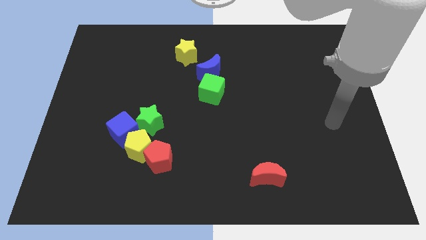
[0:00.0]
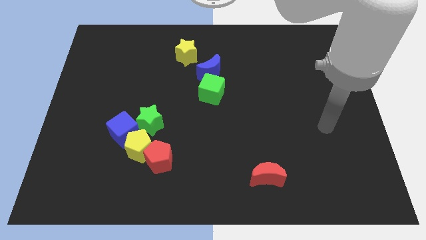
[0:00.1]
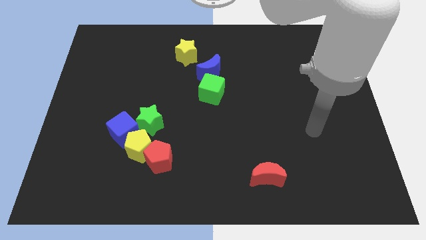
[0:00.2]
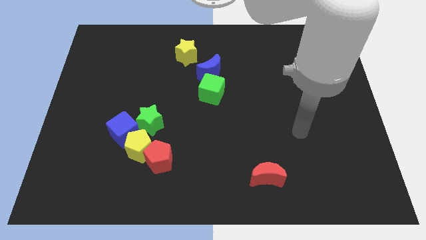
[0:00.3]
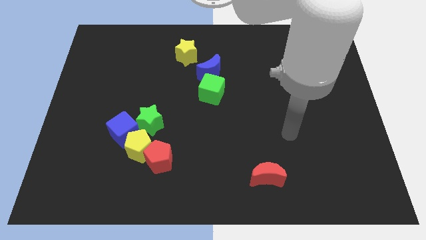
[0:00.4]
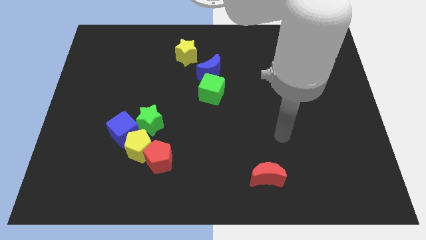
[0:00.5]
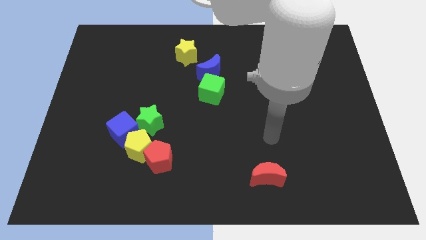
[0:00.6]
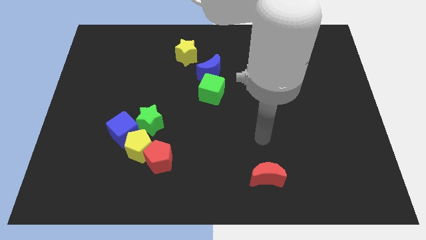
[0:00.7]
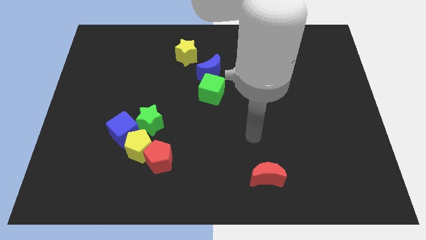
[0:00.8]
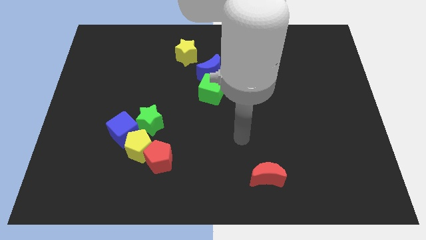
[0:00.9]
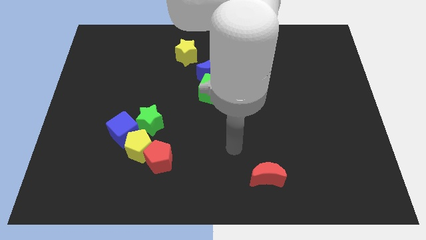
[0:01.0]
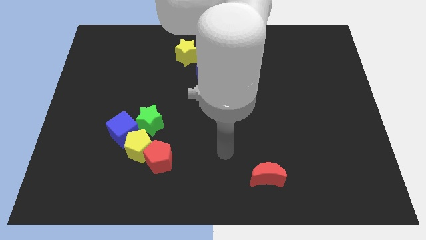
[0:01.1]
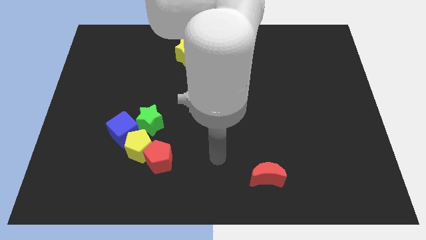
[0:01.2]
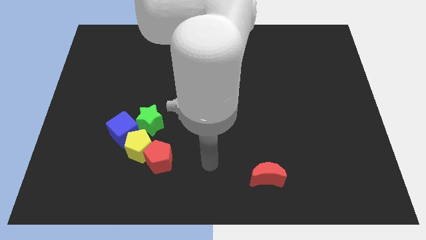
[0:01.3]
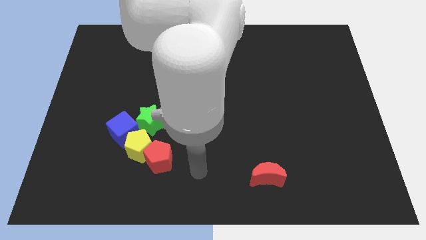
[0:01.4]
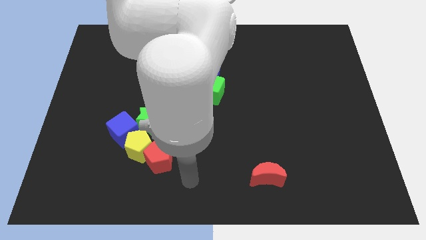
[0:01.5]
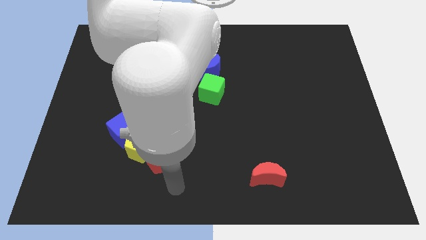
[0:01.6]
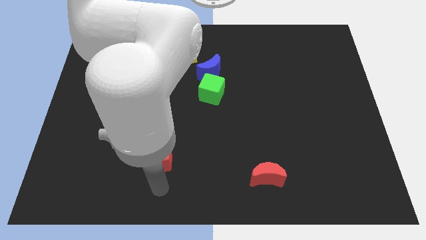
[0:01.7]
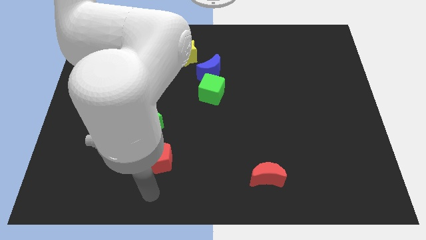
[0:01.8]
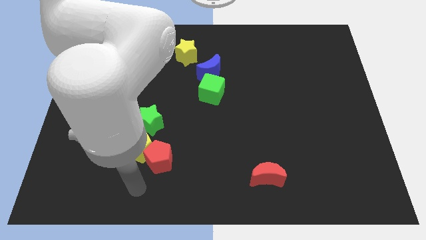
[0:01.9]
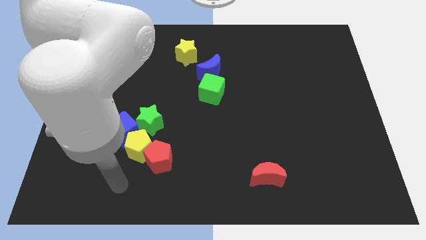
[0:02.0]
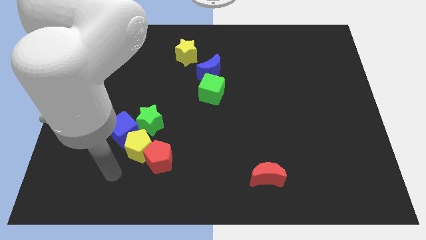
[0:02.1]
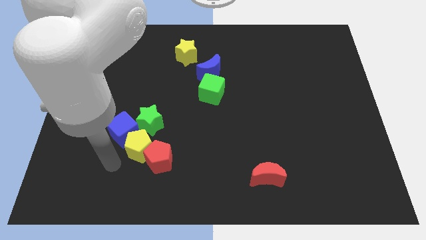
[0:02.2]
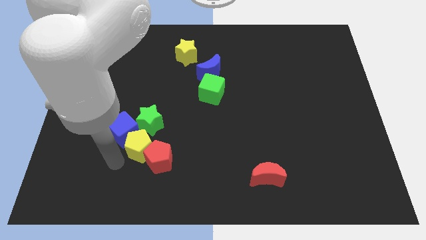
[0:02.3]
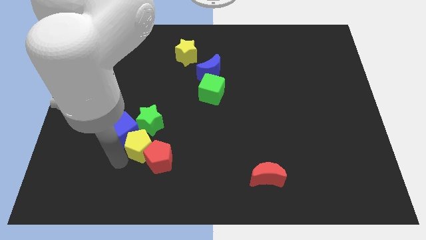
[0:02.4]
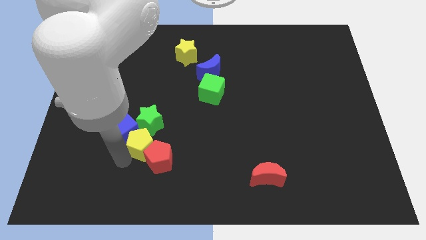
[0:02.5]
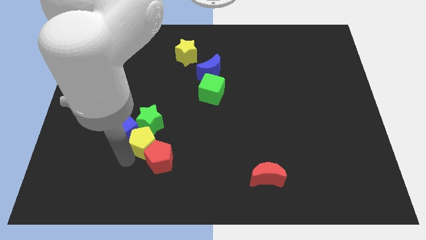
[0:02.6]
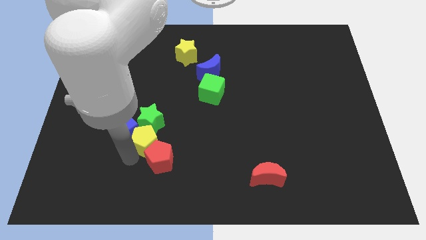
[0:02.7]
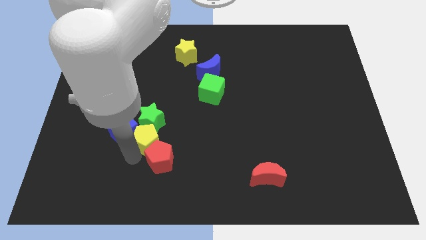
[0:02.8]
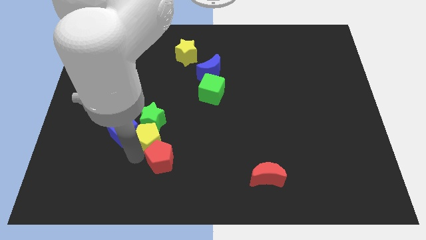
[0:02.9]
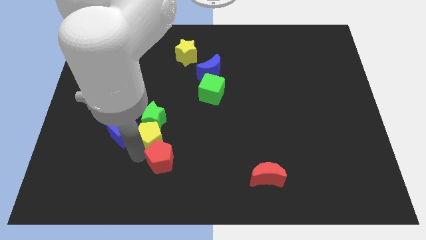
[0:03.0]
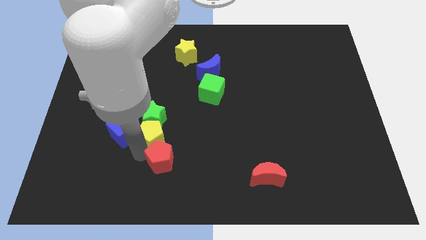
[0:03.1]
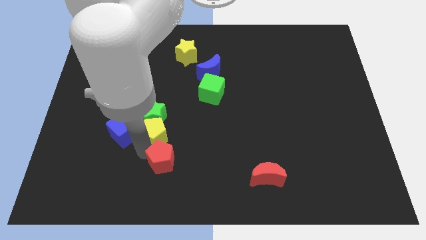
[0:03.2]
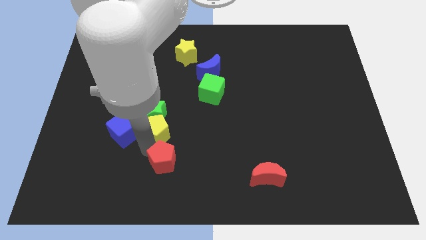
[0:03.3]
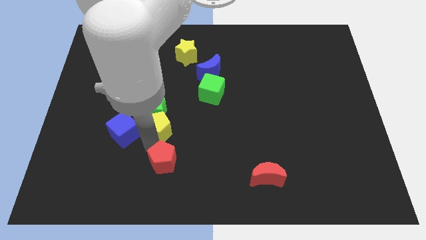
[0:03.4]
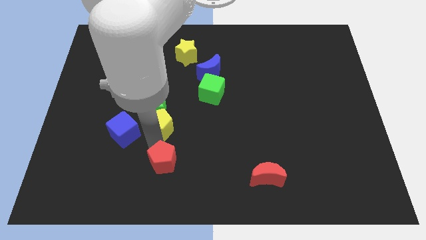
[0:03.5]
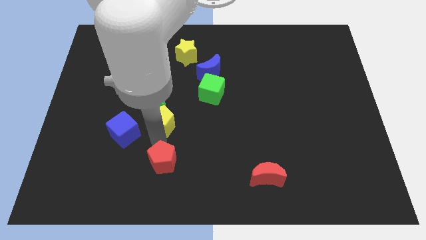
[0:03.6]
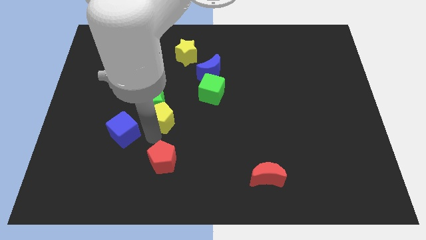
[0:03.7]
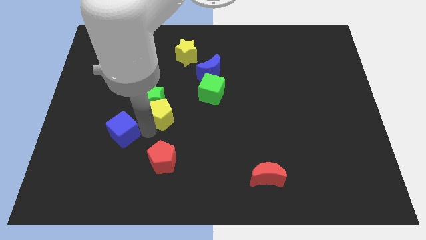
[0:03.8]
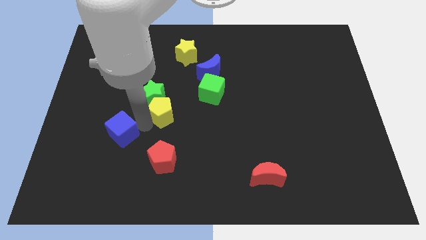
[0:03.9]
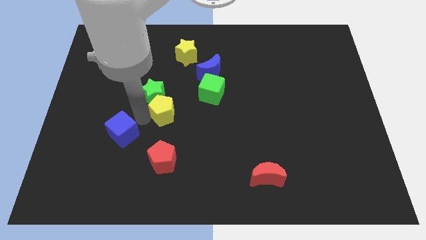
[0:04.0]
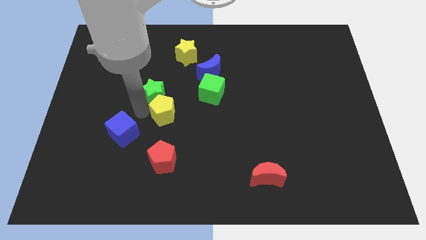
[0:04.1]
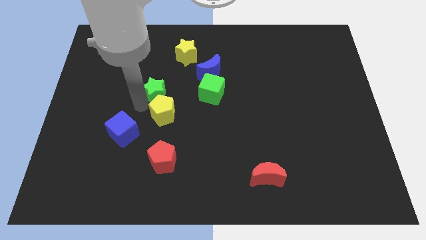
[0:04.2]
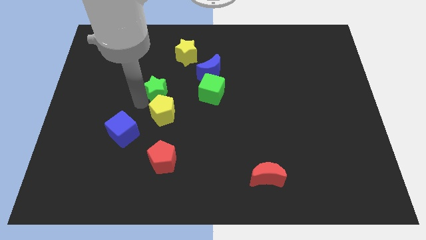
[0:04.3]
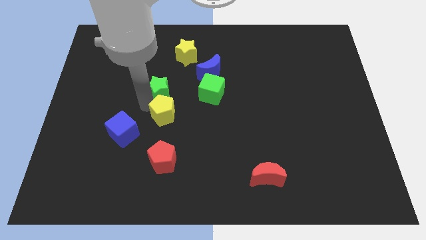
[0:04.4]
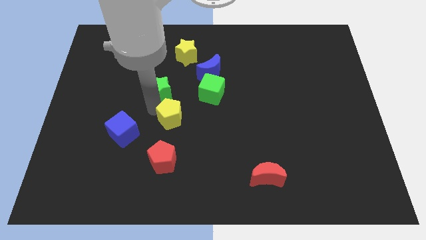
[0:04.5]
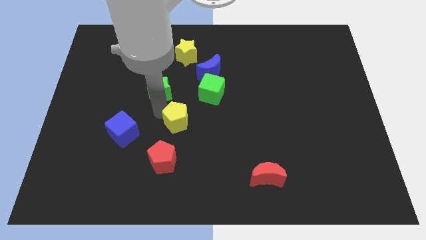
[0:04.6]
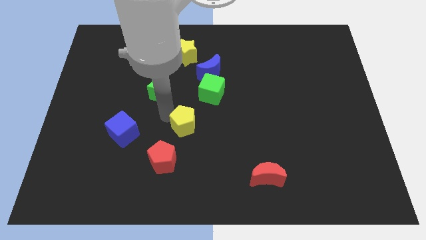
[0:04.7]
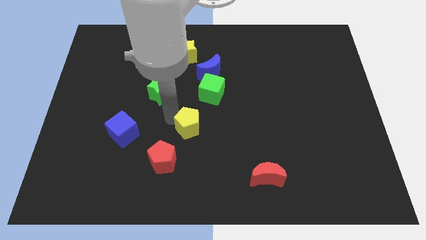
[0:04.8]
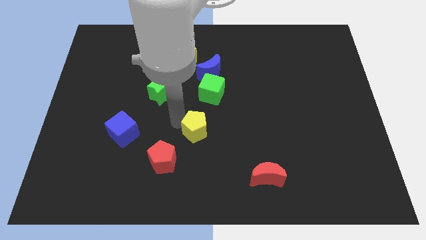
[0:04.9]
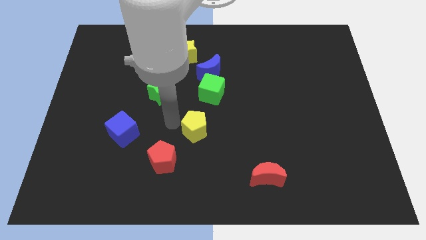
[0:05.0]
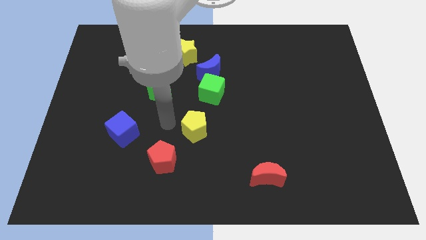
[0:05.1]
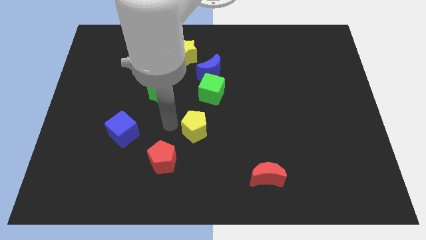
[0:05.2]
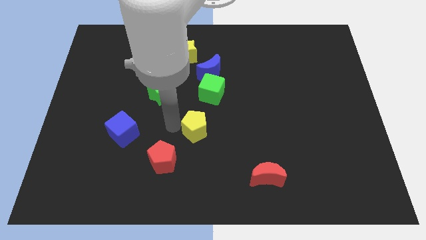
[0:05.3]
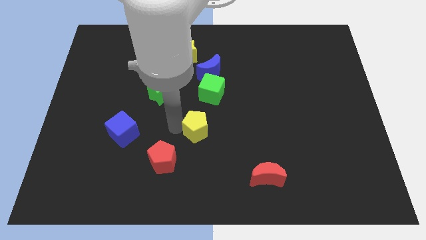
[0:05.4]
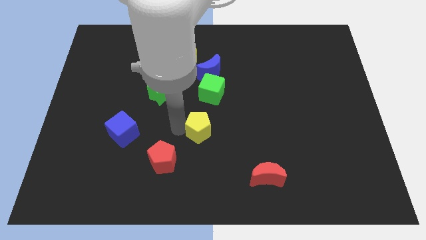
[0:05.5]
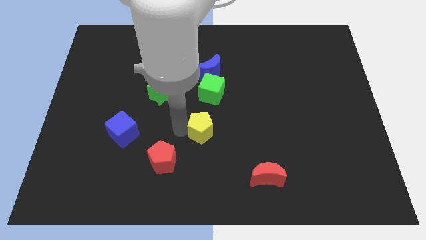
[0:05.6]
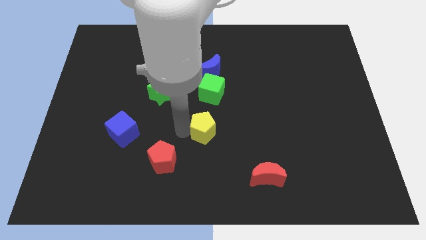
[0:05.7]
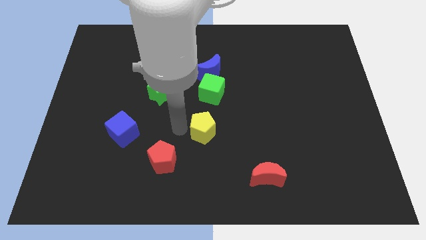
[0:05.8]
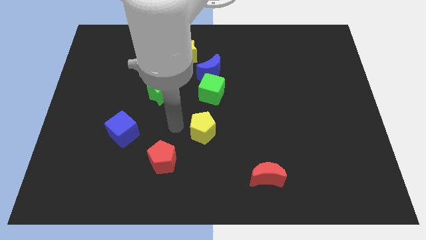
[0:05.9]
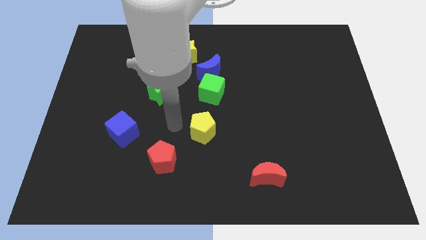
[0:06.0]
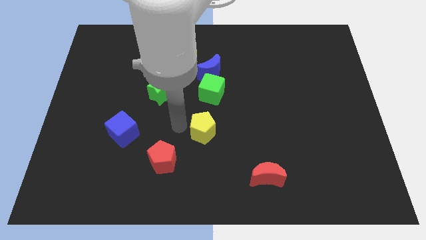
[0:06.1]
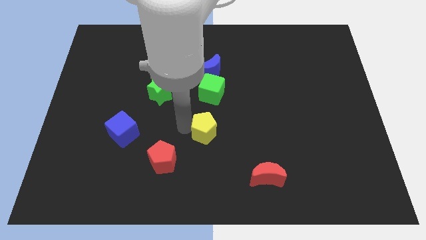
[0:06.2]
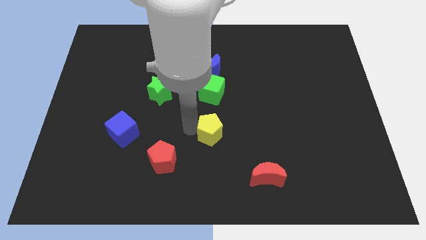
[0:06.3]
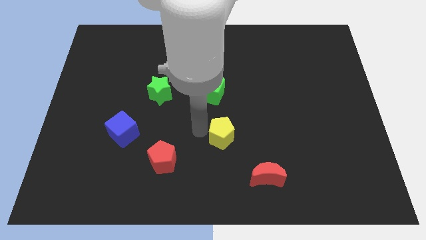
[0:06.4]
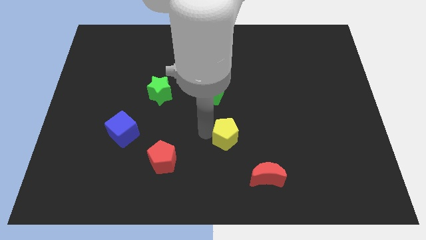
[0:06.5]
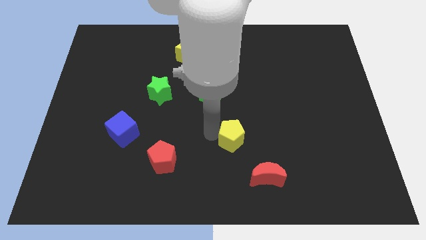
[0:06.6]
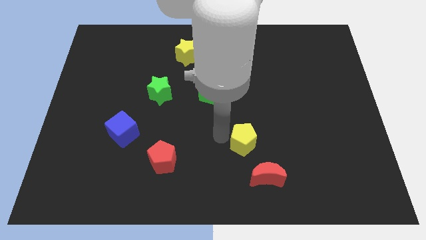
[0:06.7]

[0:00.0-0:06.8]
slide the yellow pentagon to the right

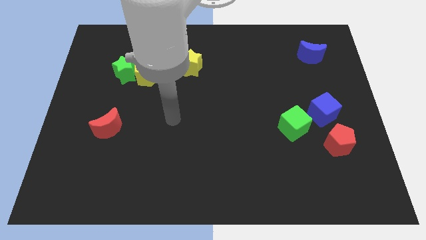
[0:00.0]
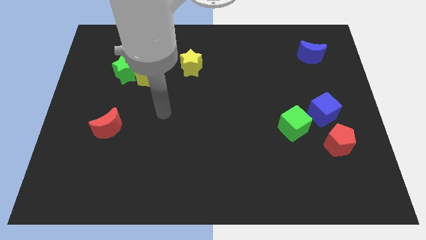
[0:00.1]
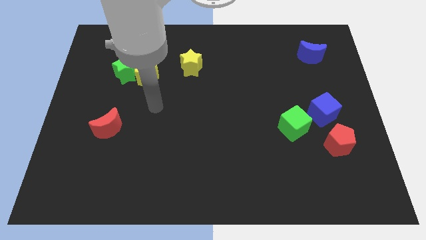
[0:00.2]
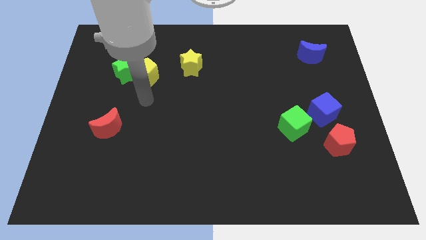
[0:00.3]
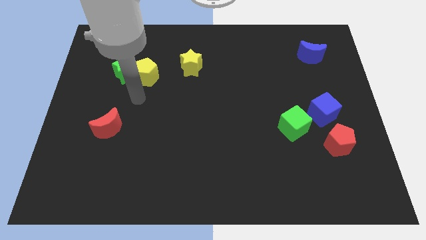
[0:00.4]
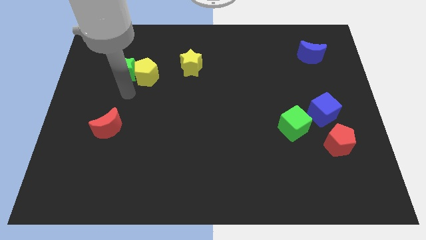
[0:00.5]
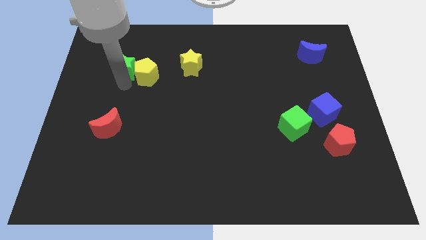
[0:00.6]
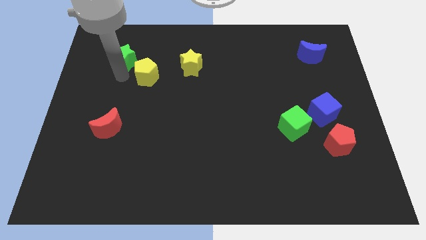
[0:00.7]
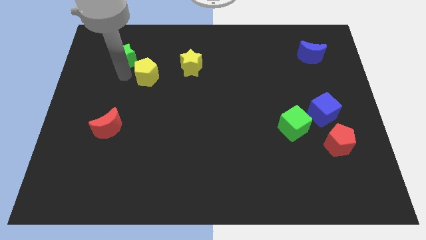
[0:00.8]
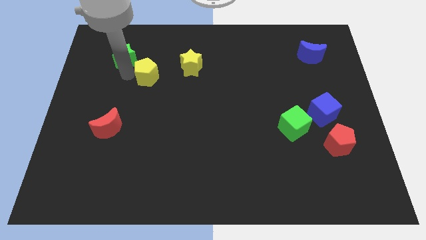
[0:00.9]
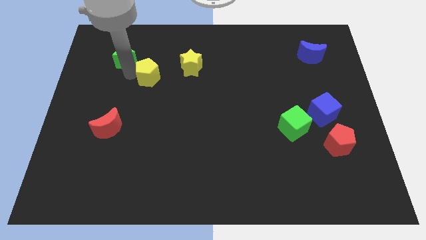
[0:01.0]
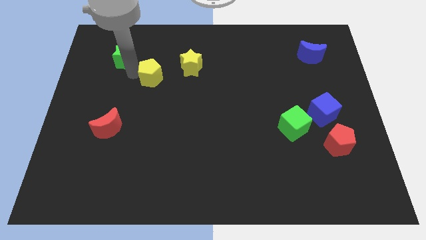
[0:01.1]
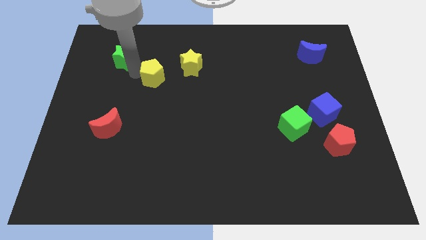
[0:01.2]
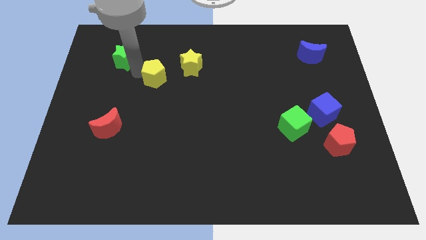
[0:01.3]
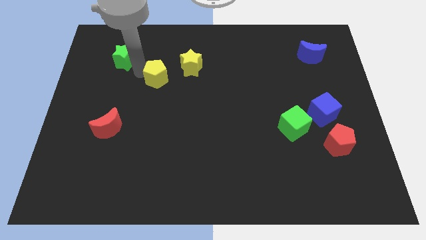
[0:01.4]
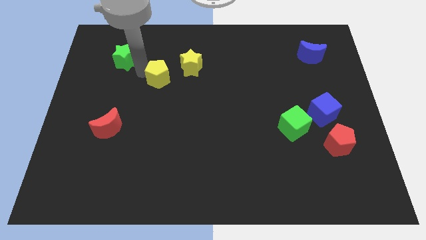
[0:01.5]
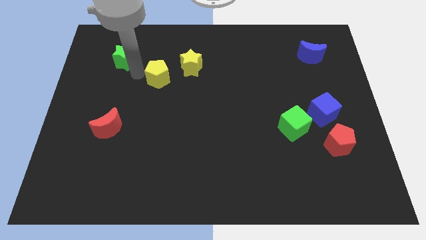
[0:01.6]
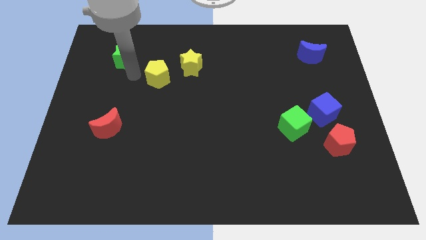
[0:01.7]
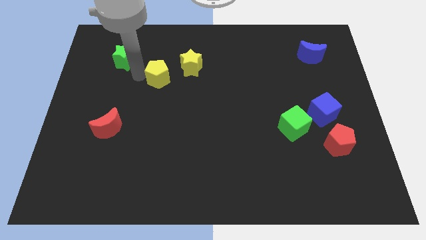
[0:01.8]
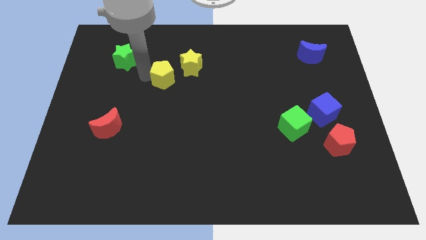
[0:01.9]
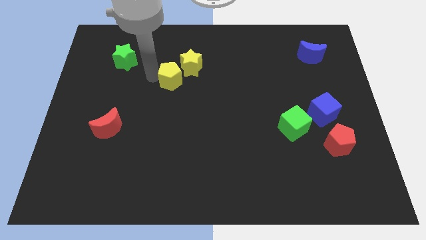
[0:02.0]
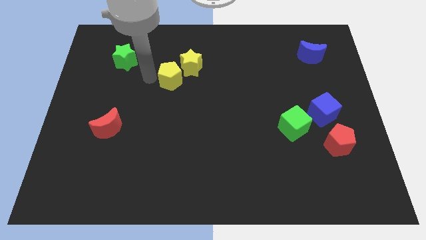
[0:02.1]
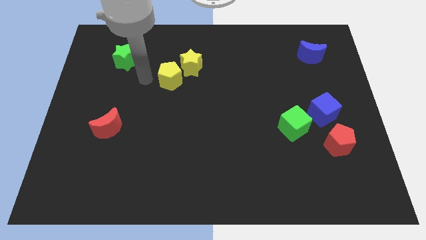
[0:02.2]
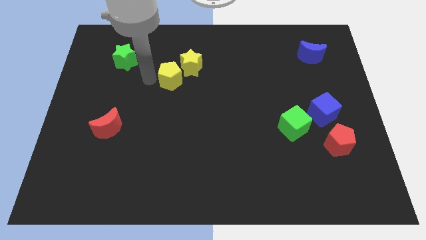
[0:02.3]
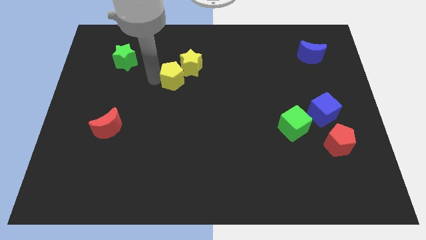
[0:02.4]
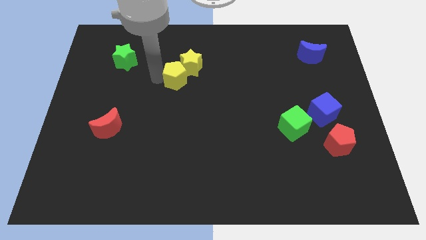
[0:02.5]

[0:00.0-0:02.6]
move the yellow pentagon to the right somewhat
